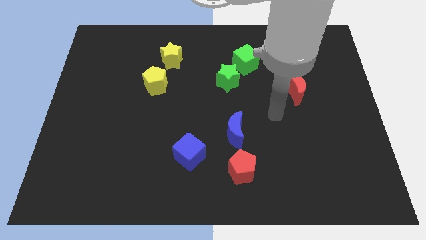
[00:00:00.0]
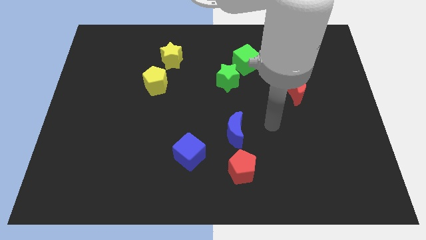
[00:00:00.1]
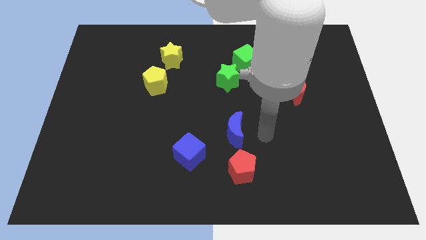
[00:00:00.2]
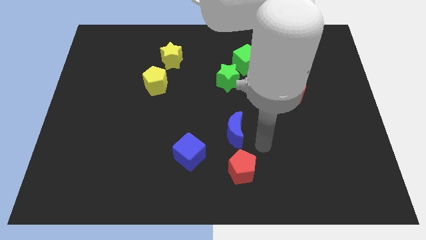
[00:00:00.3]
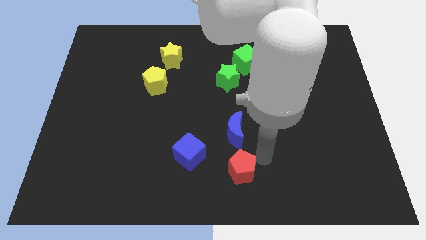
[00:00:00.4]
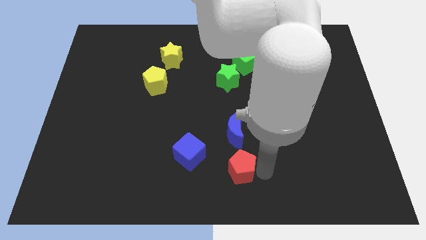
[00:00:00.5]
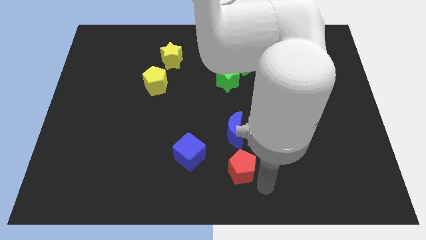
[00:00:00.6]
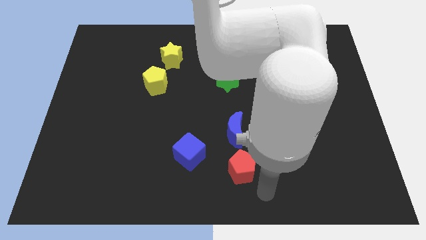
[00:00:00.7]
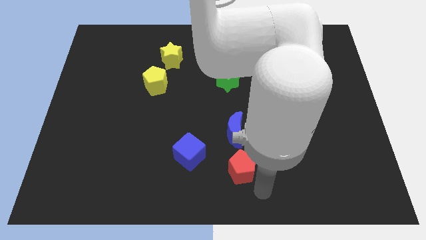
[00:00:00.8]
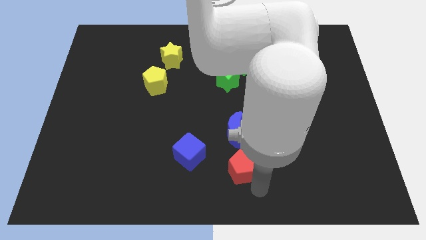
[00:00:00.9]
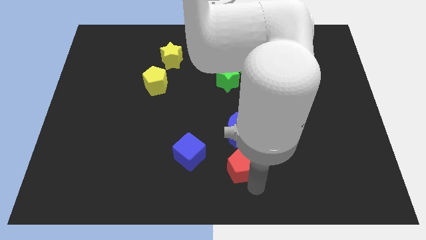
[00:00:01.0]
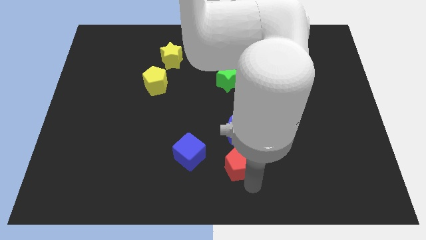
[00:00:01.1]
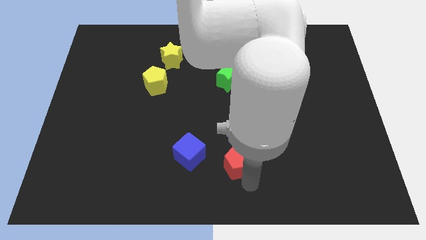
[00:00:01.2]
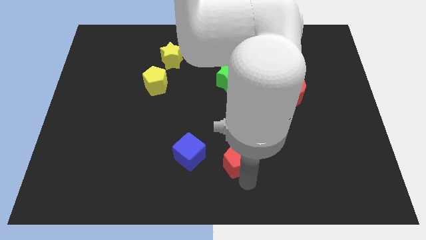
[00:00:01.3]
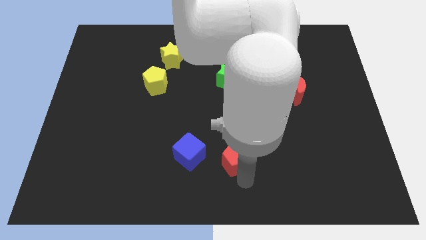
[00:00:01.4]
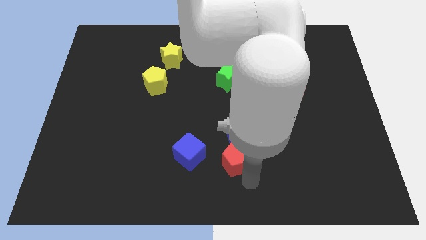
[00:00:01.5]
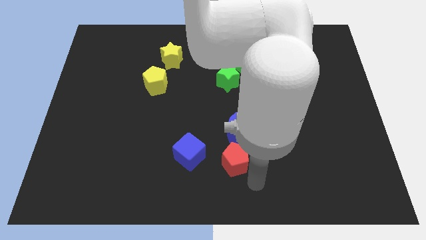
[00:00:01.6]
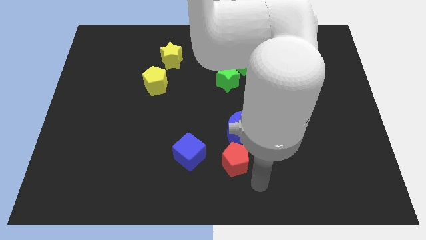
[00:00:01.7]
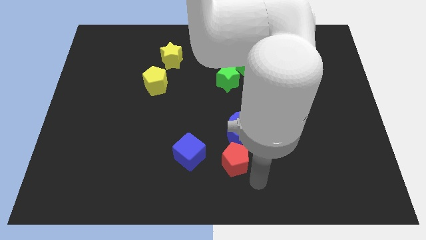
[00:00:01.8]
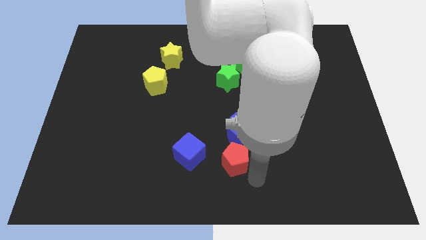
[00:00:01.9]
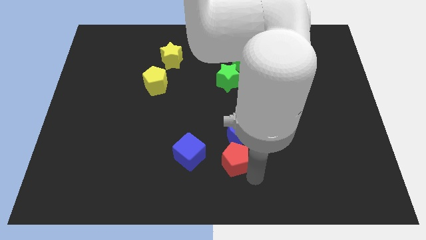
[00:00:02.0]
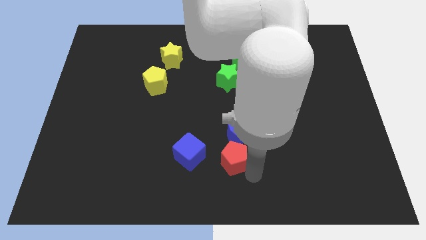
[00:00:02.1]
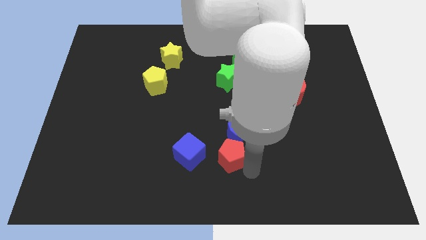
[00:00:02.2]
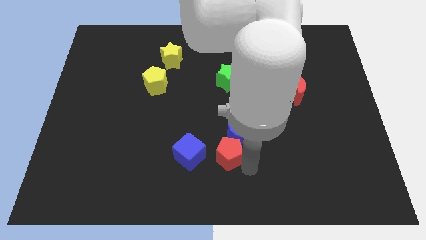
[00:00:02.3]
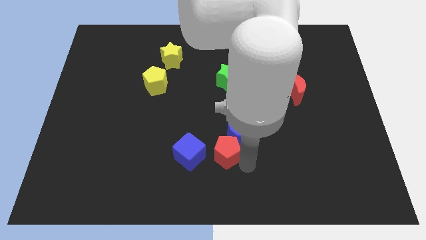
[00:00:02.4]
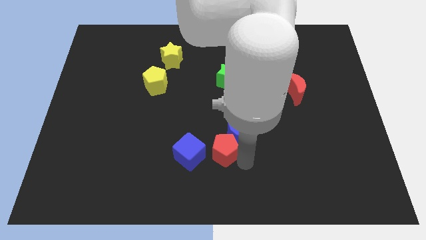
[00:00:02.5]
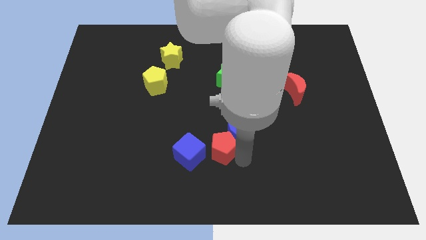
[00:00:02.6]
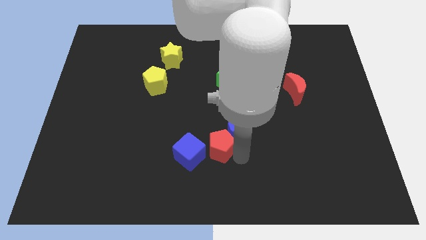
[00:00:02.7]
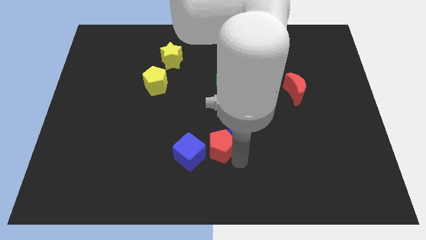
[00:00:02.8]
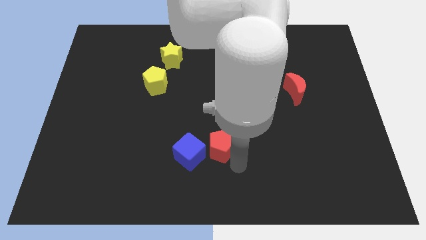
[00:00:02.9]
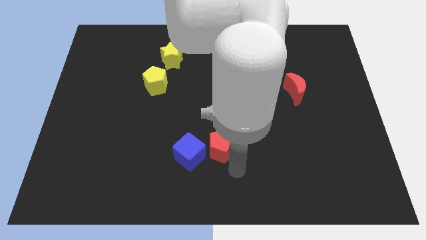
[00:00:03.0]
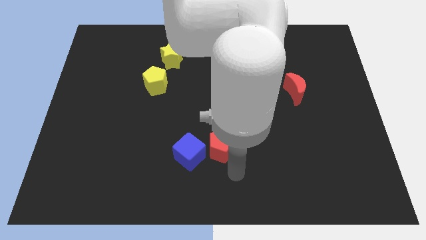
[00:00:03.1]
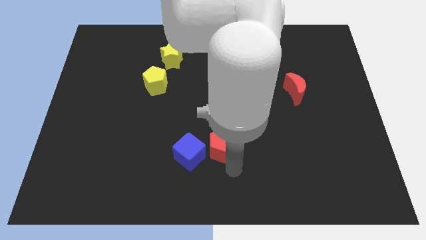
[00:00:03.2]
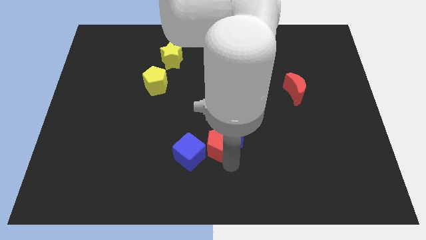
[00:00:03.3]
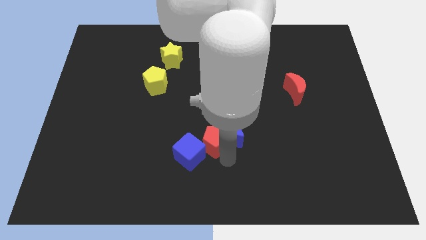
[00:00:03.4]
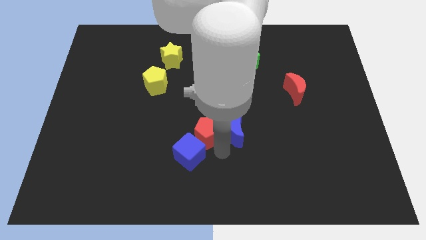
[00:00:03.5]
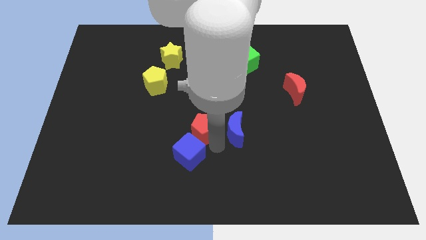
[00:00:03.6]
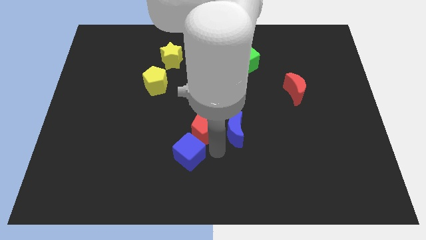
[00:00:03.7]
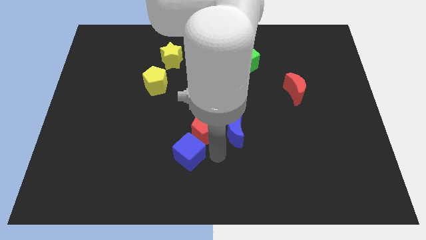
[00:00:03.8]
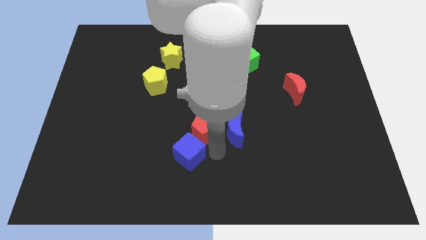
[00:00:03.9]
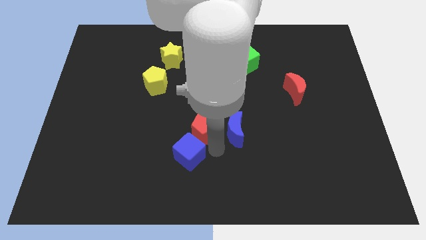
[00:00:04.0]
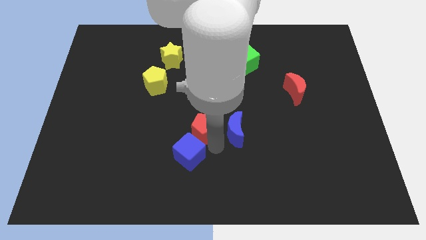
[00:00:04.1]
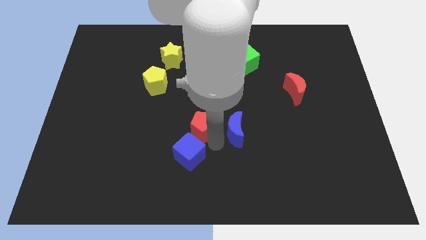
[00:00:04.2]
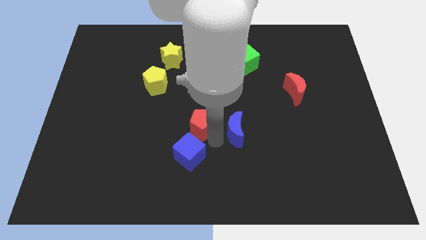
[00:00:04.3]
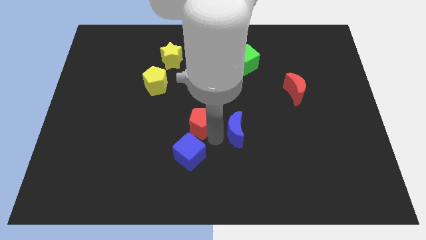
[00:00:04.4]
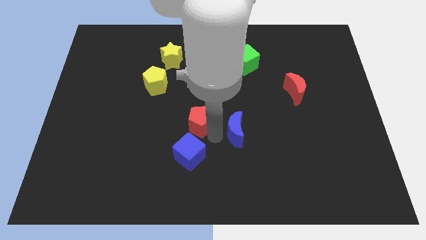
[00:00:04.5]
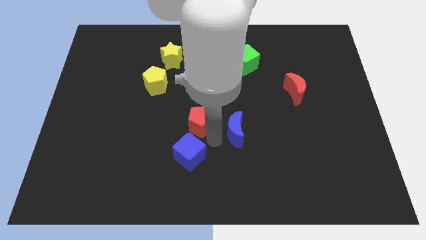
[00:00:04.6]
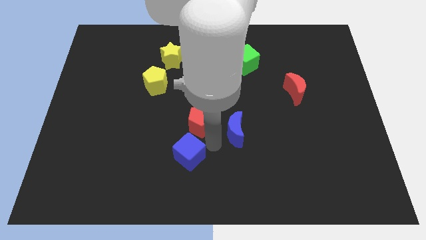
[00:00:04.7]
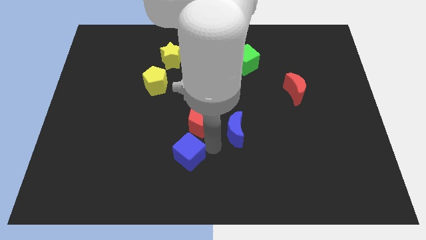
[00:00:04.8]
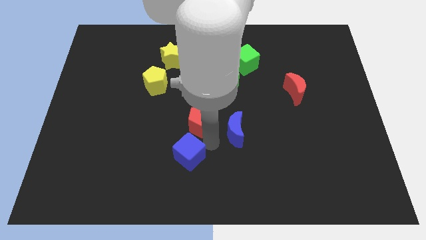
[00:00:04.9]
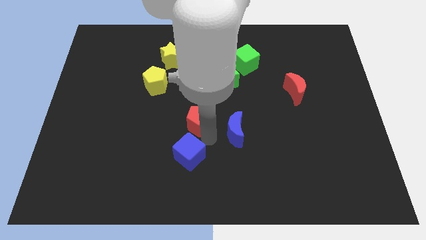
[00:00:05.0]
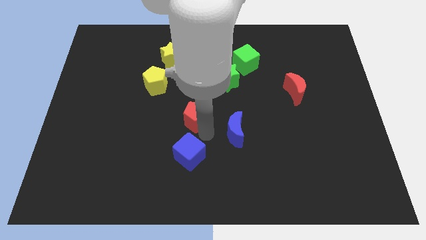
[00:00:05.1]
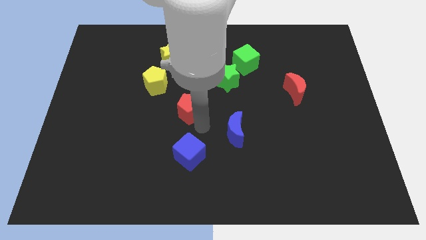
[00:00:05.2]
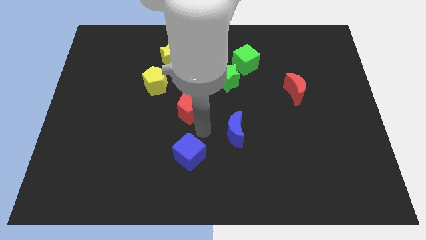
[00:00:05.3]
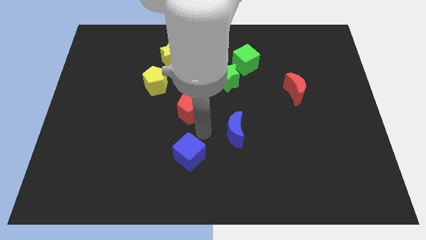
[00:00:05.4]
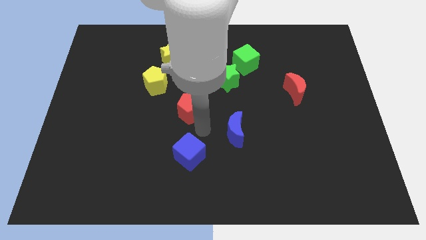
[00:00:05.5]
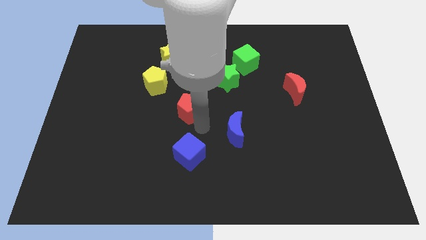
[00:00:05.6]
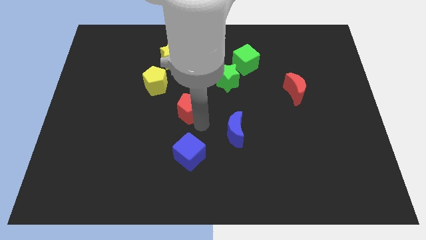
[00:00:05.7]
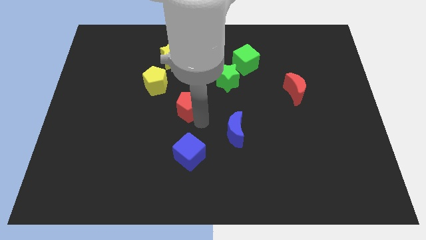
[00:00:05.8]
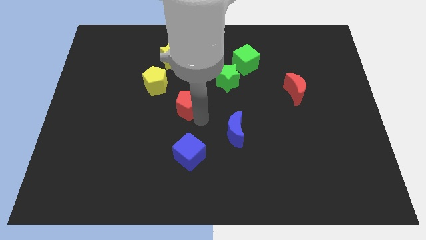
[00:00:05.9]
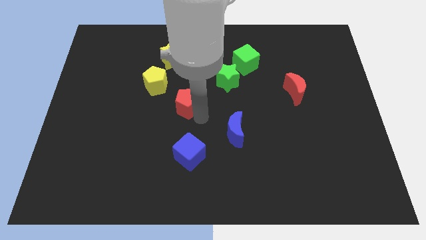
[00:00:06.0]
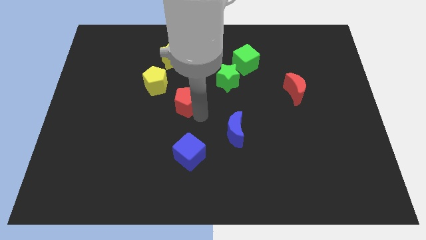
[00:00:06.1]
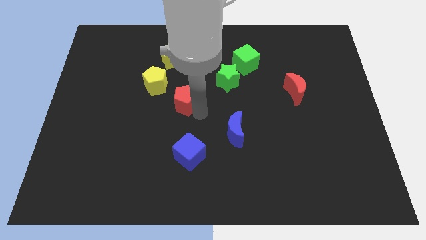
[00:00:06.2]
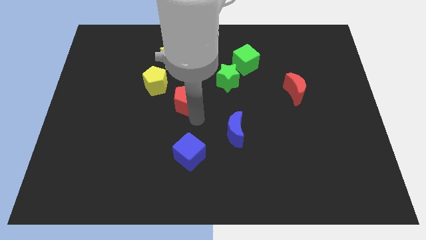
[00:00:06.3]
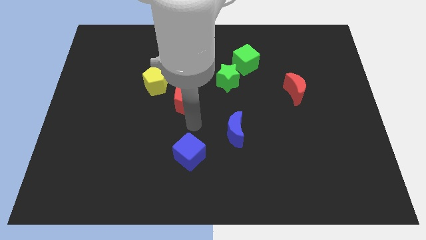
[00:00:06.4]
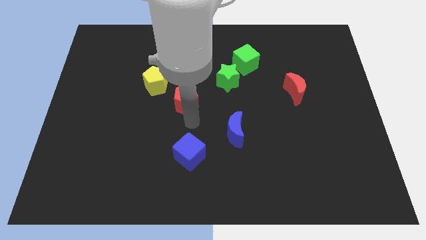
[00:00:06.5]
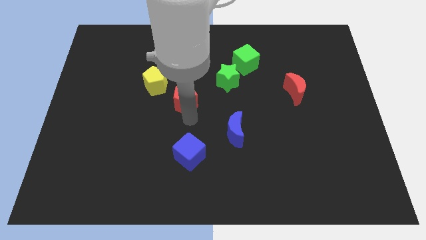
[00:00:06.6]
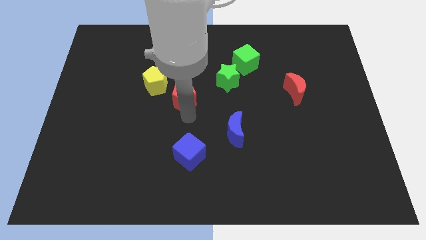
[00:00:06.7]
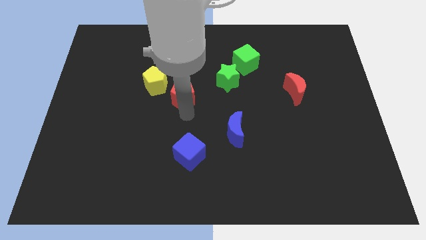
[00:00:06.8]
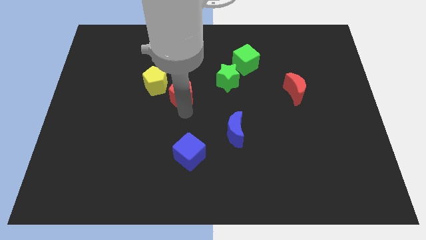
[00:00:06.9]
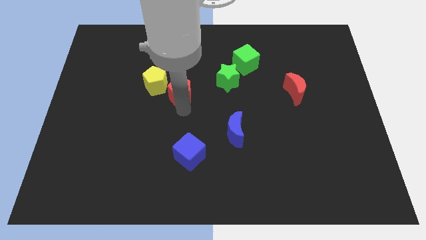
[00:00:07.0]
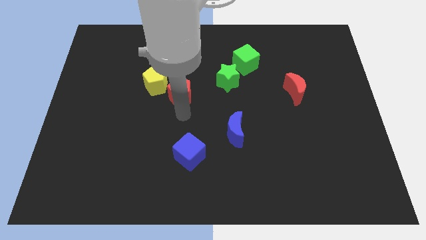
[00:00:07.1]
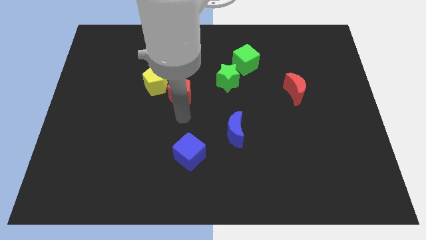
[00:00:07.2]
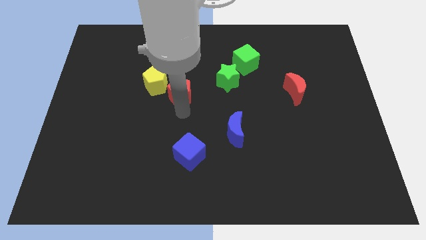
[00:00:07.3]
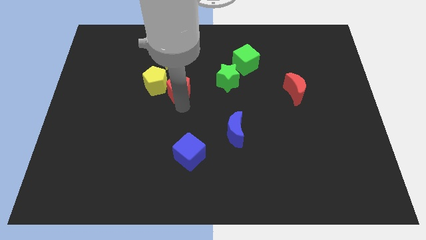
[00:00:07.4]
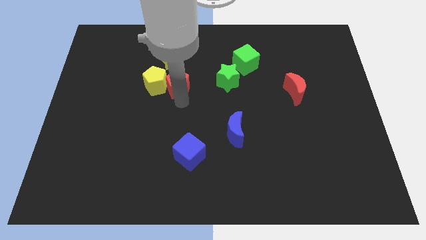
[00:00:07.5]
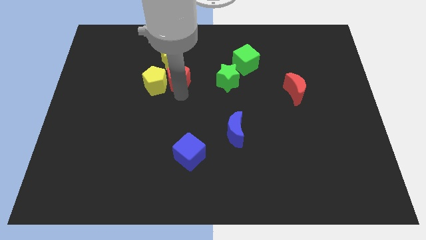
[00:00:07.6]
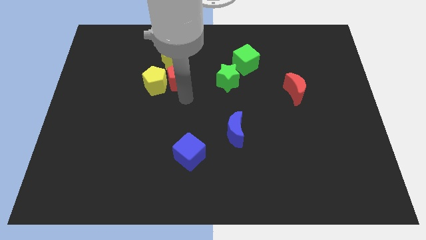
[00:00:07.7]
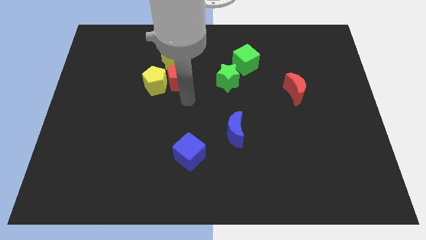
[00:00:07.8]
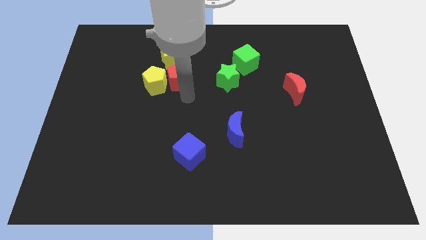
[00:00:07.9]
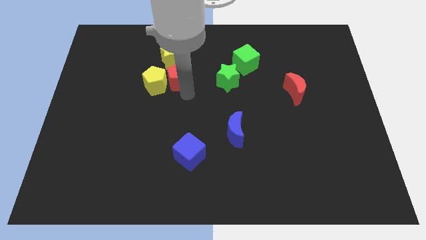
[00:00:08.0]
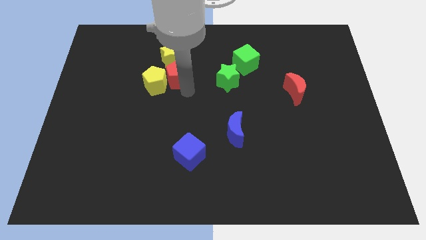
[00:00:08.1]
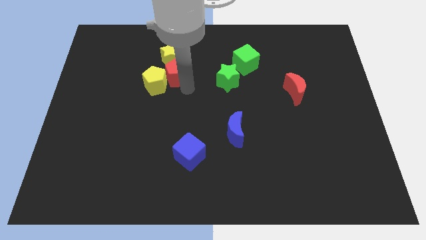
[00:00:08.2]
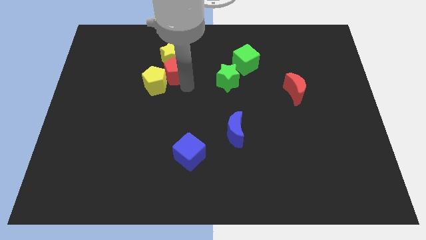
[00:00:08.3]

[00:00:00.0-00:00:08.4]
push the red pentagon towards the yellow star
